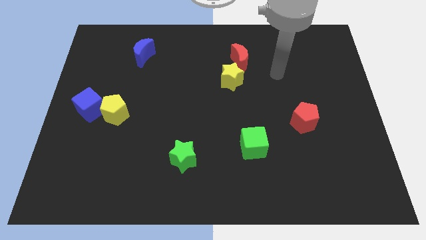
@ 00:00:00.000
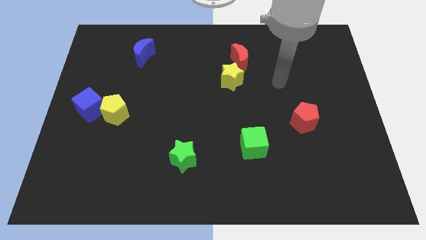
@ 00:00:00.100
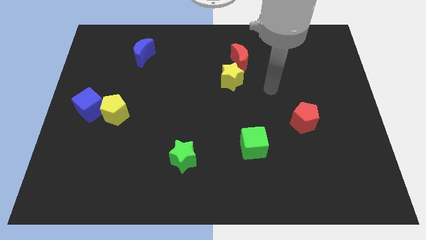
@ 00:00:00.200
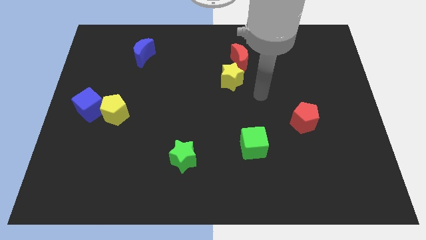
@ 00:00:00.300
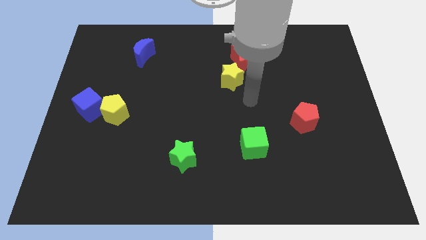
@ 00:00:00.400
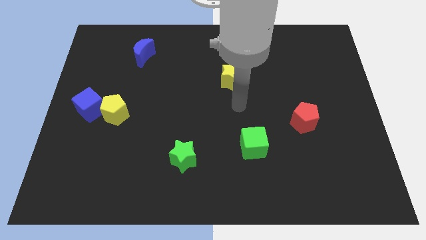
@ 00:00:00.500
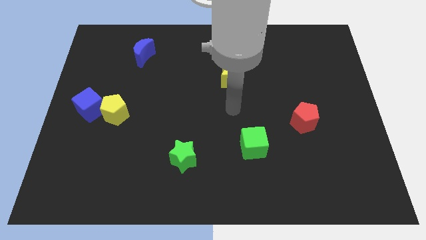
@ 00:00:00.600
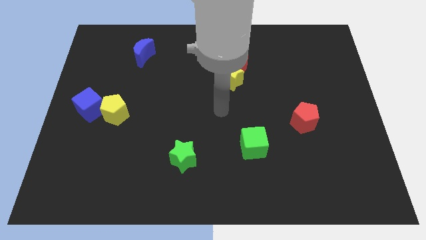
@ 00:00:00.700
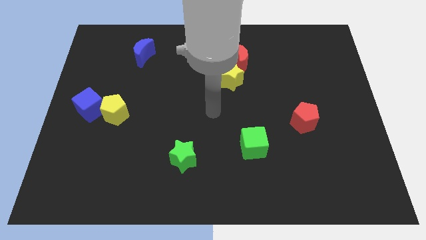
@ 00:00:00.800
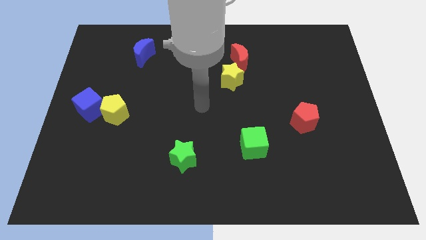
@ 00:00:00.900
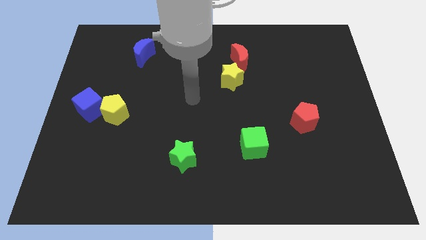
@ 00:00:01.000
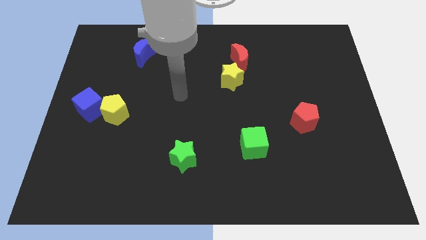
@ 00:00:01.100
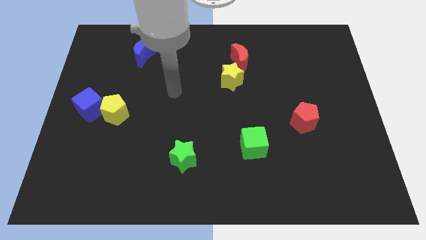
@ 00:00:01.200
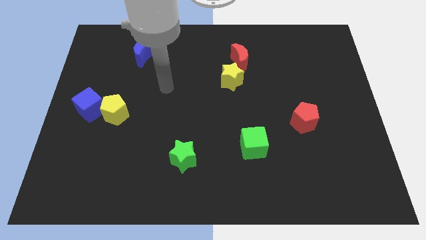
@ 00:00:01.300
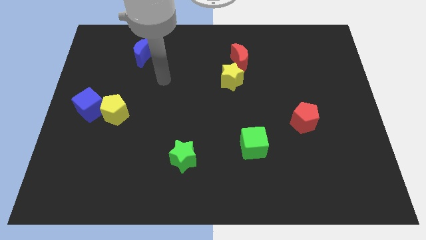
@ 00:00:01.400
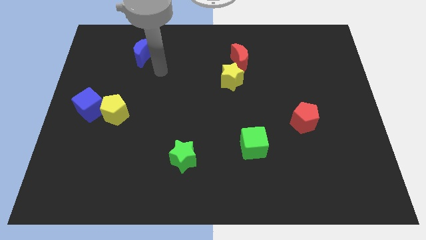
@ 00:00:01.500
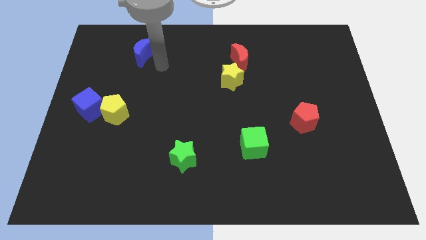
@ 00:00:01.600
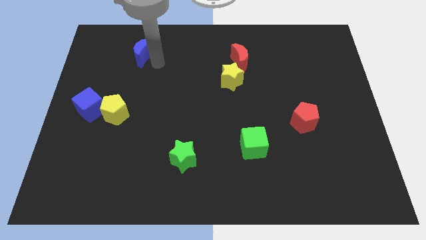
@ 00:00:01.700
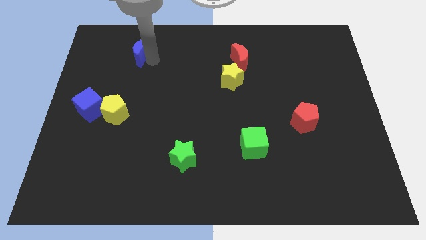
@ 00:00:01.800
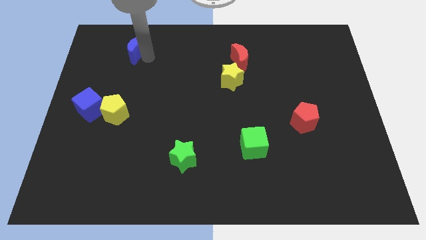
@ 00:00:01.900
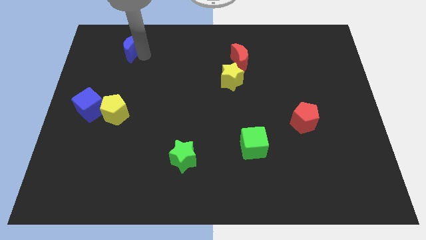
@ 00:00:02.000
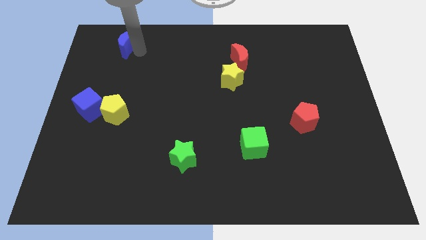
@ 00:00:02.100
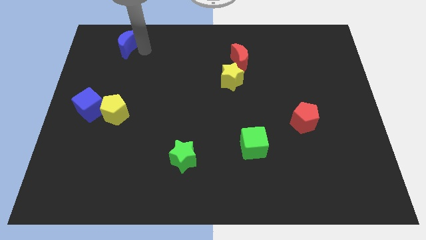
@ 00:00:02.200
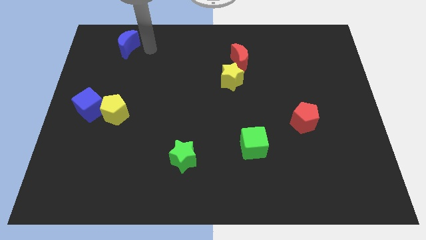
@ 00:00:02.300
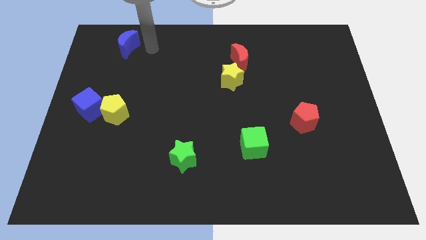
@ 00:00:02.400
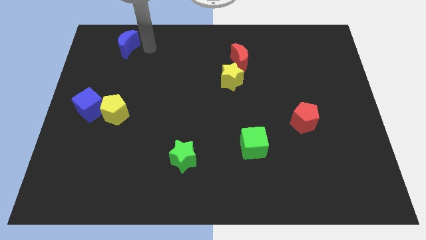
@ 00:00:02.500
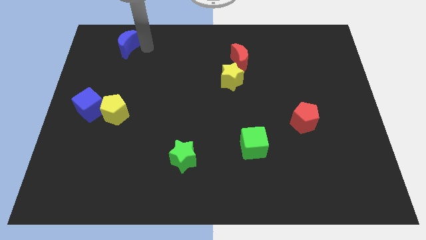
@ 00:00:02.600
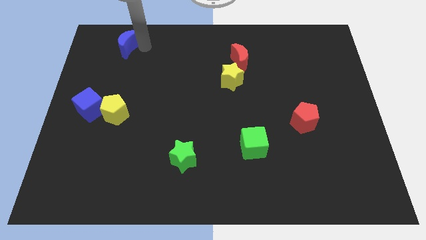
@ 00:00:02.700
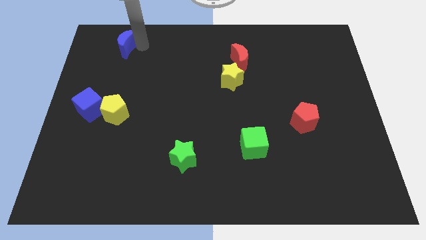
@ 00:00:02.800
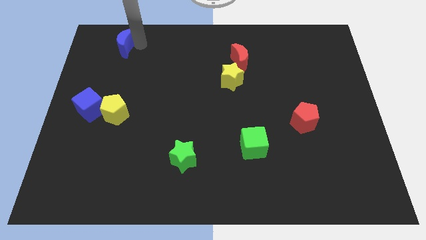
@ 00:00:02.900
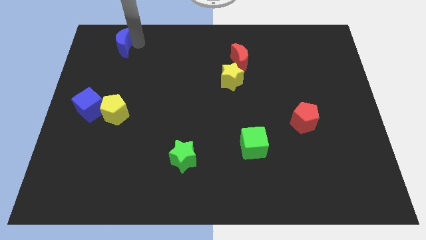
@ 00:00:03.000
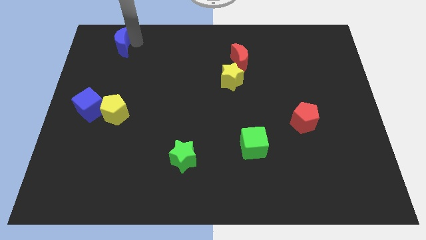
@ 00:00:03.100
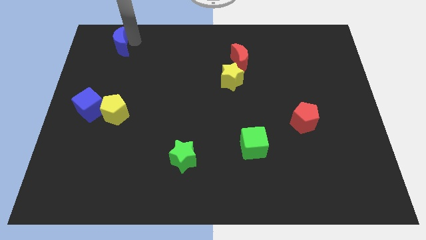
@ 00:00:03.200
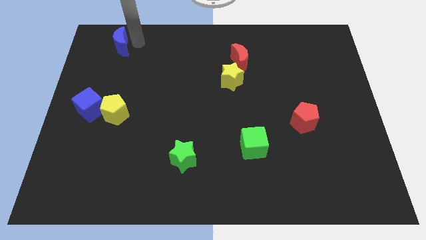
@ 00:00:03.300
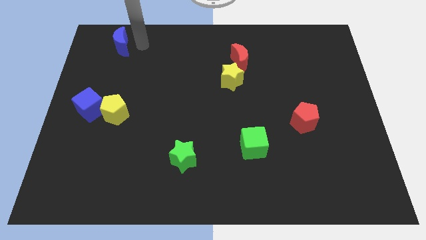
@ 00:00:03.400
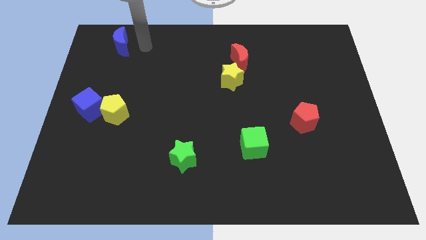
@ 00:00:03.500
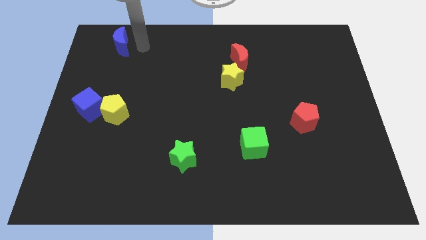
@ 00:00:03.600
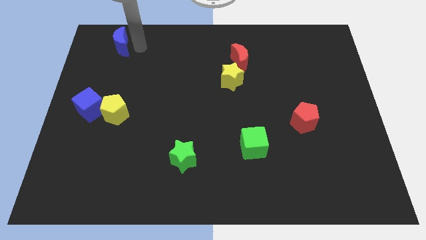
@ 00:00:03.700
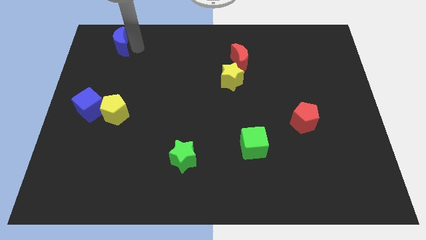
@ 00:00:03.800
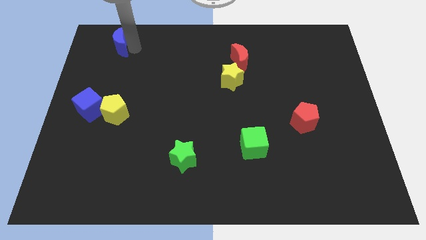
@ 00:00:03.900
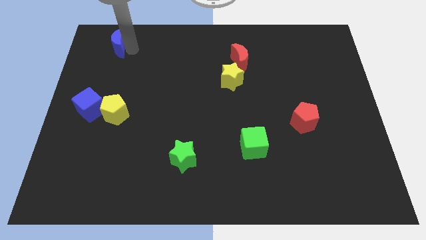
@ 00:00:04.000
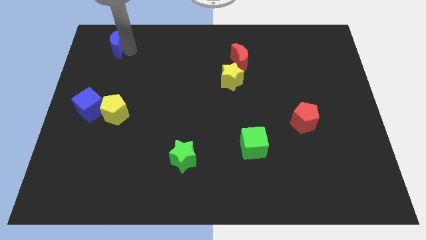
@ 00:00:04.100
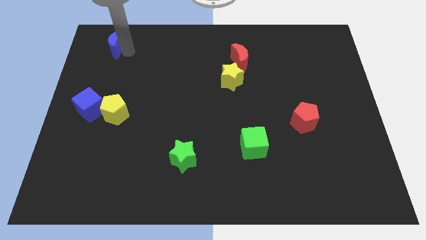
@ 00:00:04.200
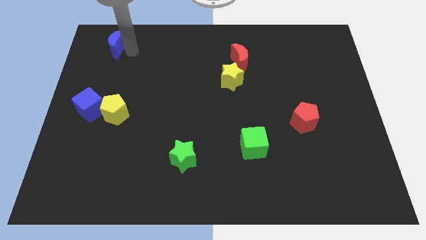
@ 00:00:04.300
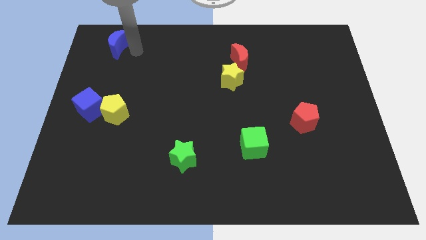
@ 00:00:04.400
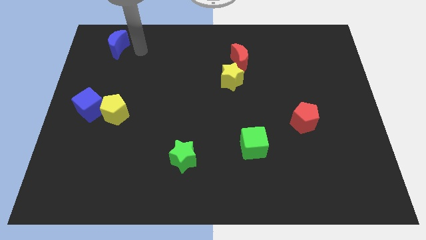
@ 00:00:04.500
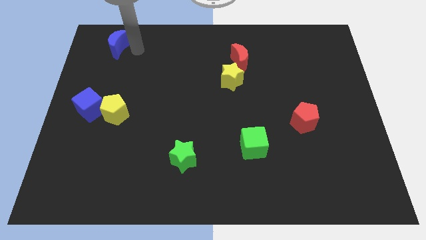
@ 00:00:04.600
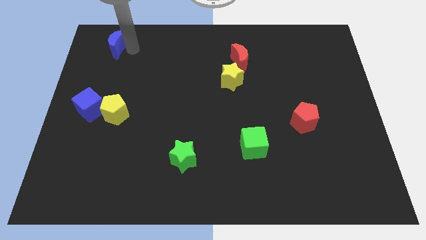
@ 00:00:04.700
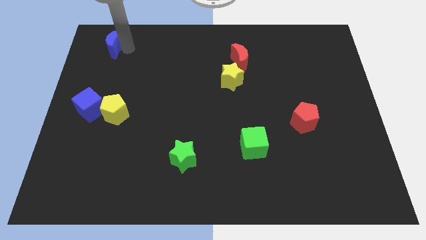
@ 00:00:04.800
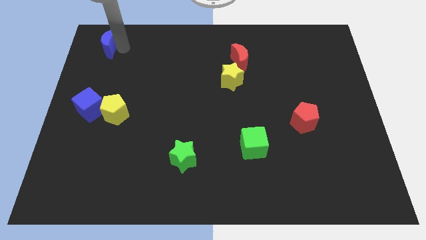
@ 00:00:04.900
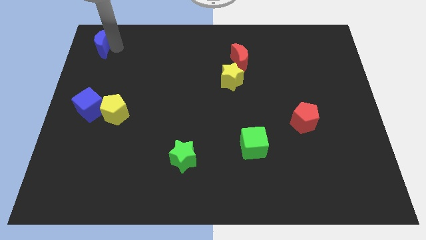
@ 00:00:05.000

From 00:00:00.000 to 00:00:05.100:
put the blue moon to the top left of the board

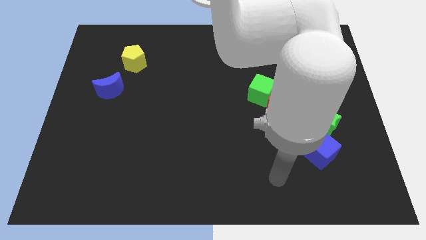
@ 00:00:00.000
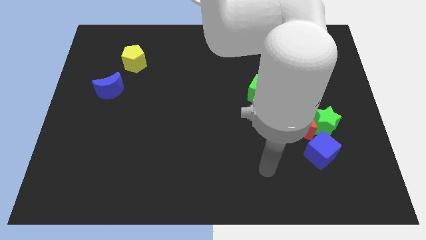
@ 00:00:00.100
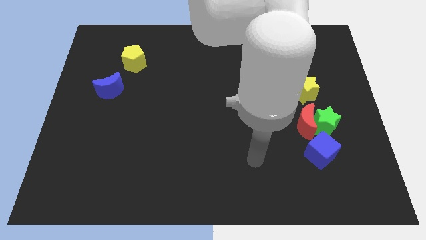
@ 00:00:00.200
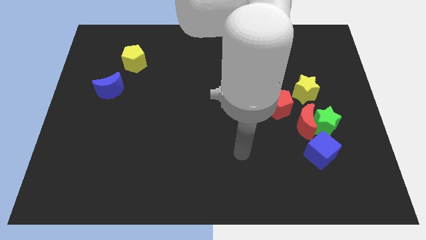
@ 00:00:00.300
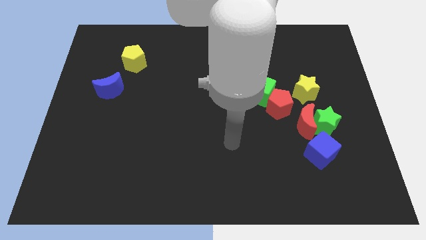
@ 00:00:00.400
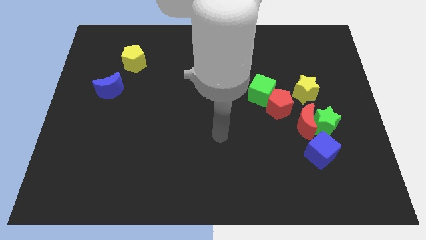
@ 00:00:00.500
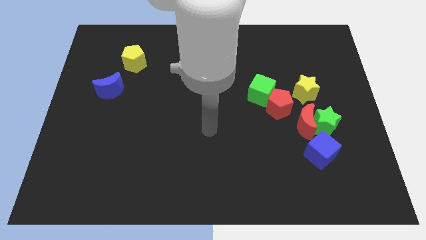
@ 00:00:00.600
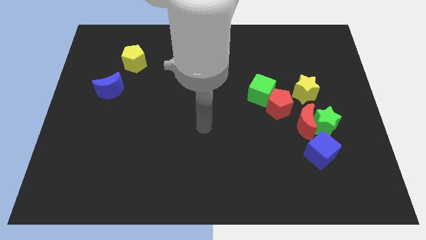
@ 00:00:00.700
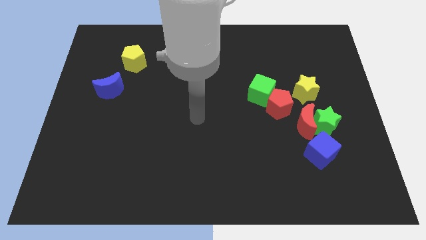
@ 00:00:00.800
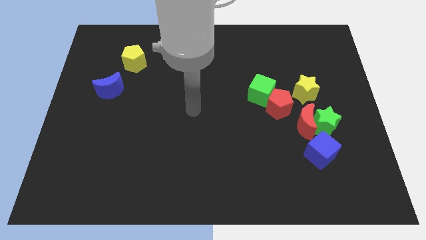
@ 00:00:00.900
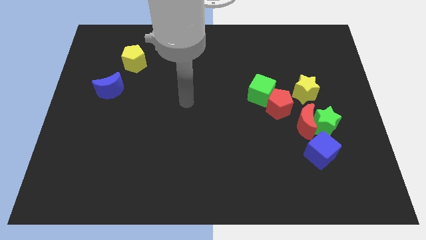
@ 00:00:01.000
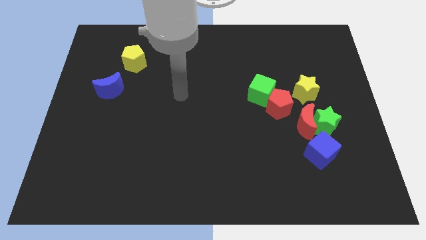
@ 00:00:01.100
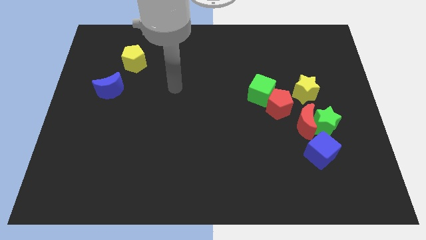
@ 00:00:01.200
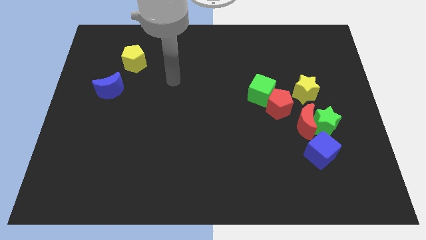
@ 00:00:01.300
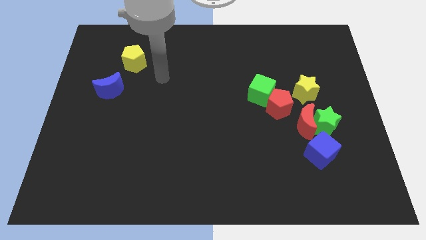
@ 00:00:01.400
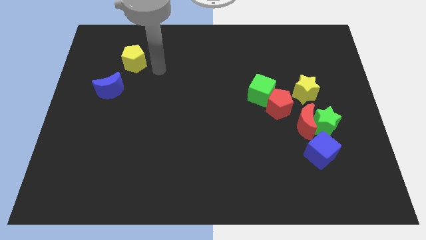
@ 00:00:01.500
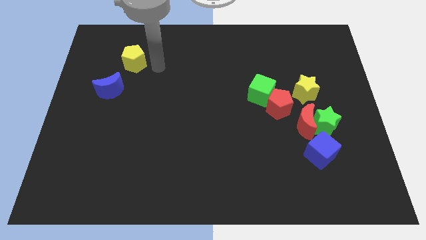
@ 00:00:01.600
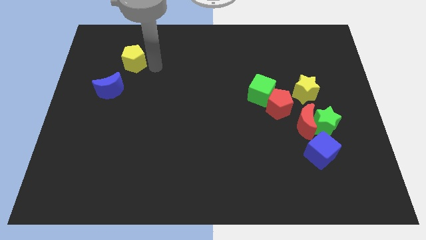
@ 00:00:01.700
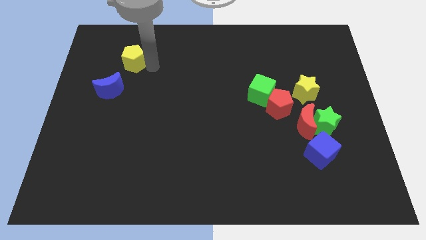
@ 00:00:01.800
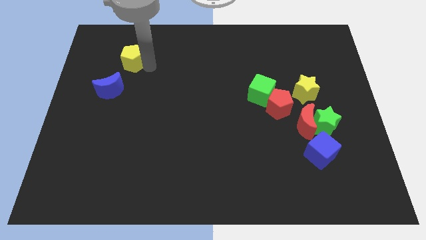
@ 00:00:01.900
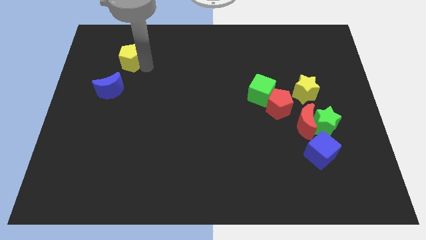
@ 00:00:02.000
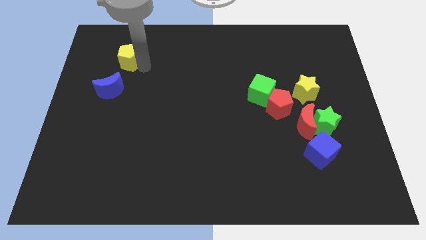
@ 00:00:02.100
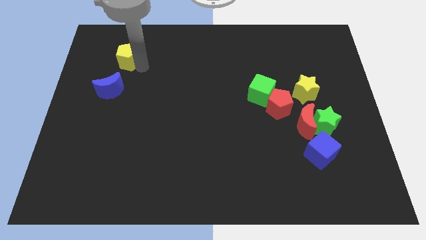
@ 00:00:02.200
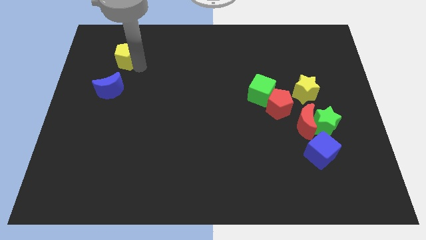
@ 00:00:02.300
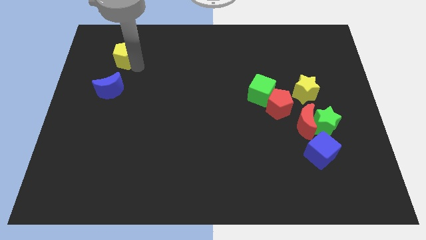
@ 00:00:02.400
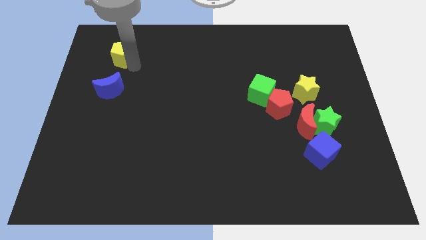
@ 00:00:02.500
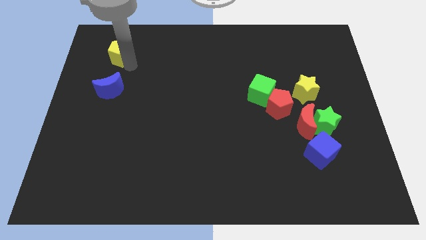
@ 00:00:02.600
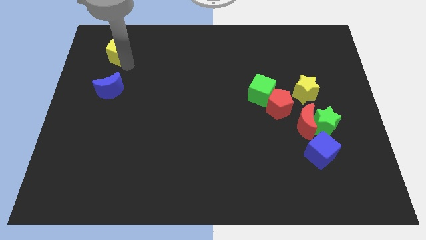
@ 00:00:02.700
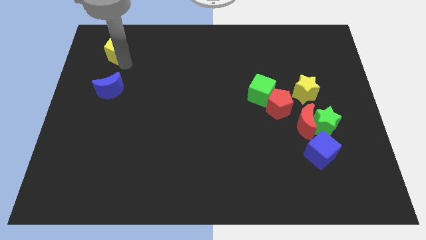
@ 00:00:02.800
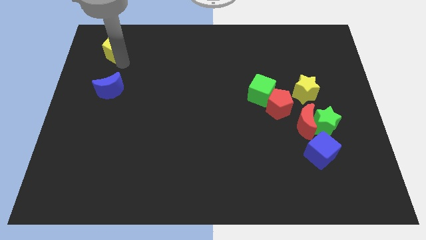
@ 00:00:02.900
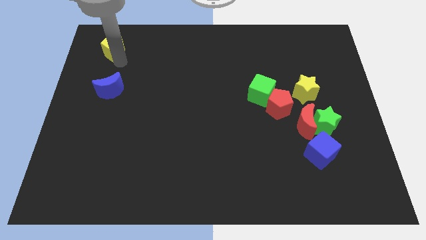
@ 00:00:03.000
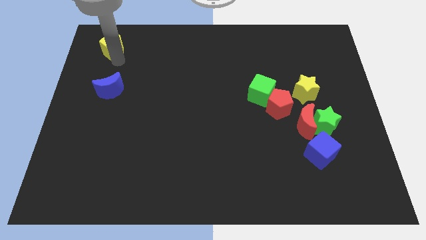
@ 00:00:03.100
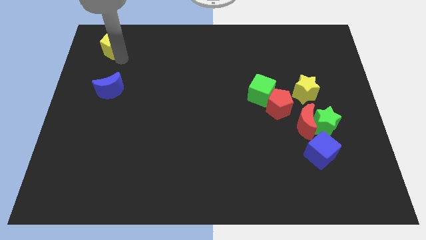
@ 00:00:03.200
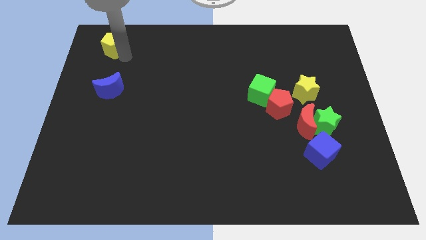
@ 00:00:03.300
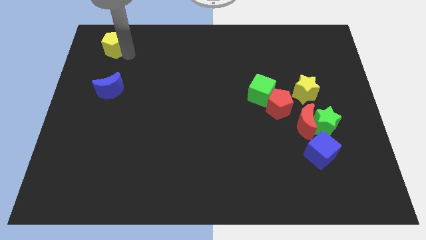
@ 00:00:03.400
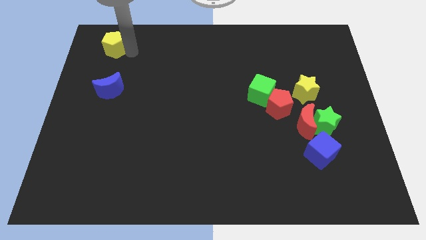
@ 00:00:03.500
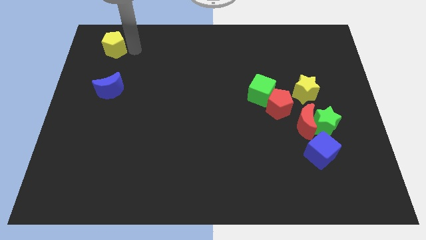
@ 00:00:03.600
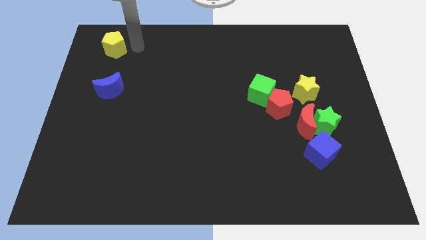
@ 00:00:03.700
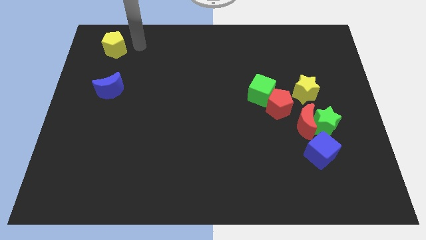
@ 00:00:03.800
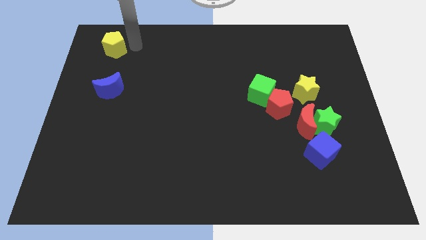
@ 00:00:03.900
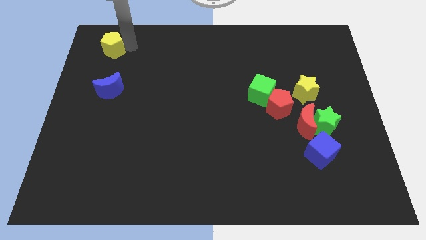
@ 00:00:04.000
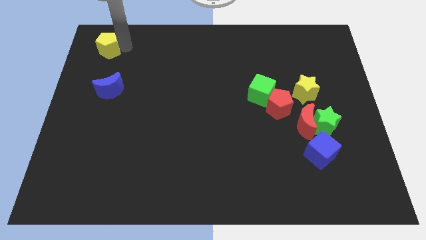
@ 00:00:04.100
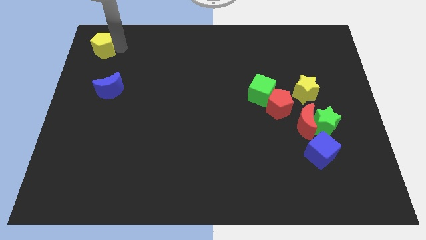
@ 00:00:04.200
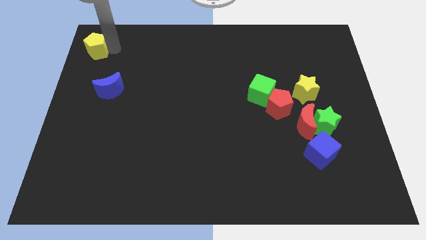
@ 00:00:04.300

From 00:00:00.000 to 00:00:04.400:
slide the yellow pentagon to the upper left corner
